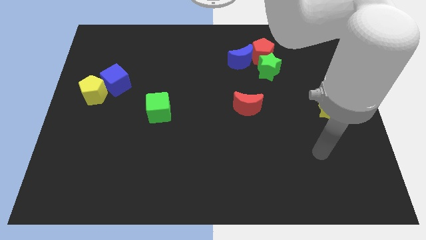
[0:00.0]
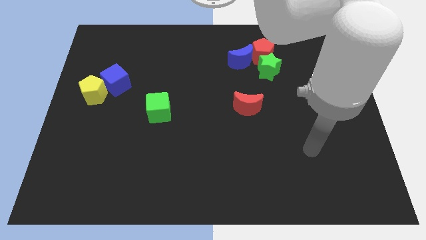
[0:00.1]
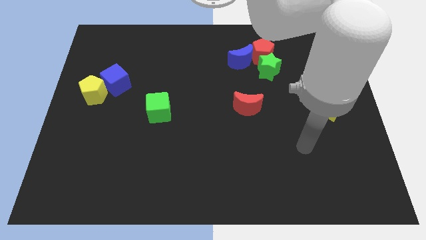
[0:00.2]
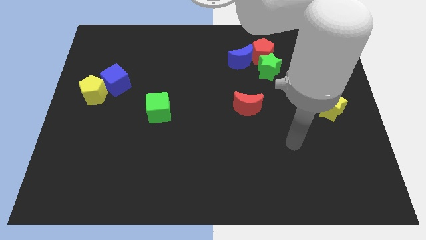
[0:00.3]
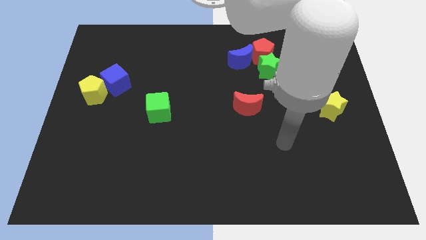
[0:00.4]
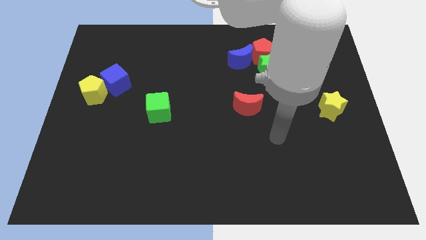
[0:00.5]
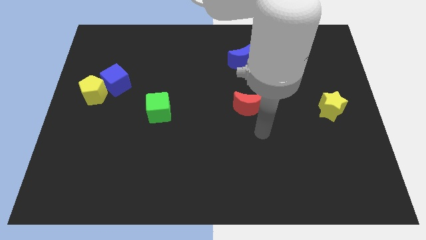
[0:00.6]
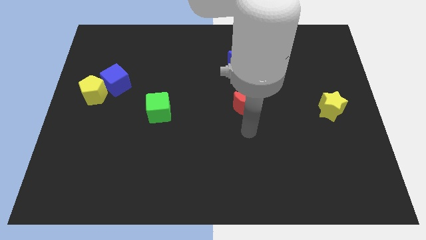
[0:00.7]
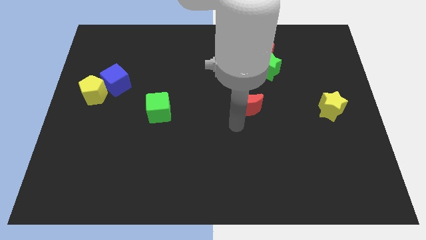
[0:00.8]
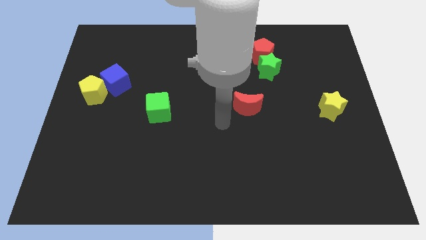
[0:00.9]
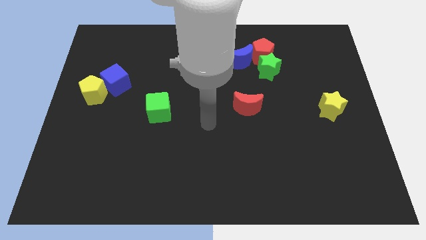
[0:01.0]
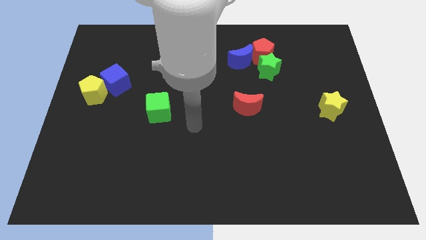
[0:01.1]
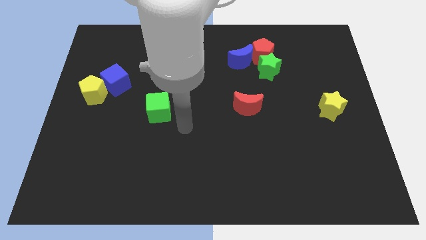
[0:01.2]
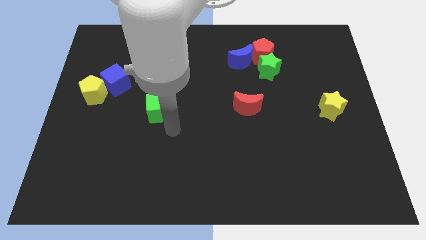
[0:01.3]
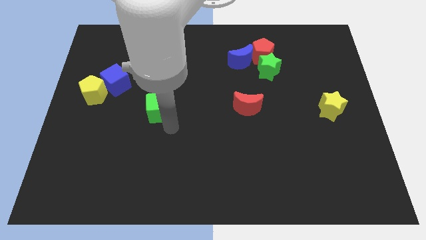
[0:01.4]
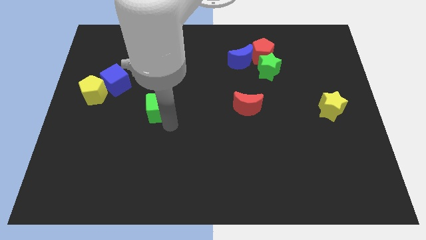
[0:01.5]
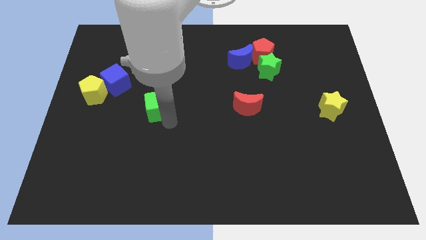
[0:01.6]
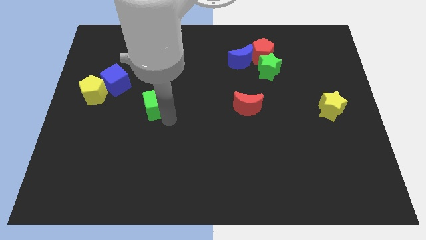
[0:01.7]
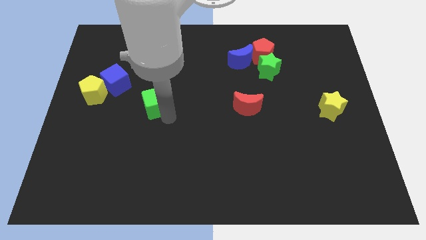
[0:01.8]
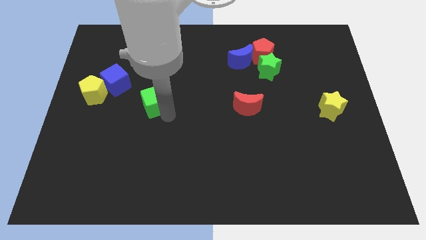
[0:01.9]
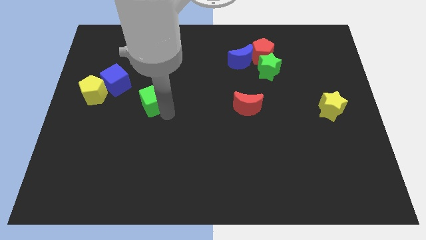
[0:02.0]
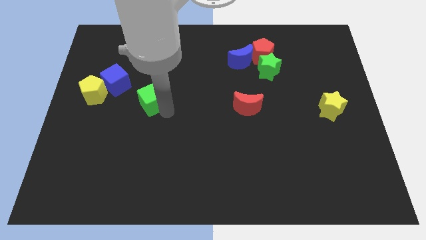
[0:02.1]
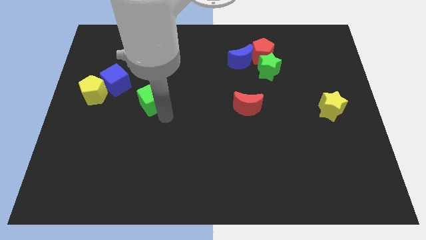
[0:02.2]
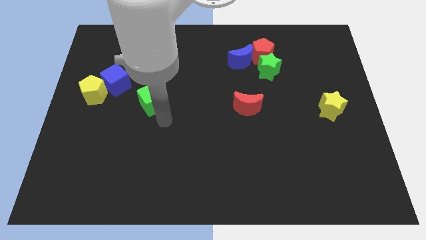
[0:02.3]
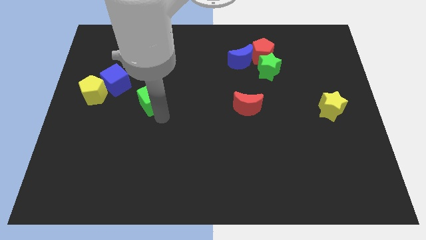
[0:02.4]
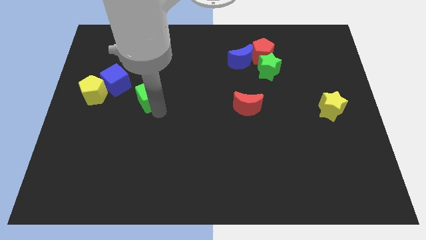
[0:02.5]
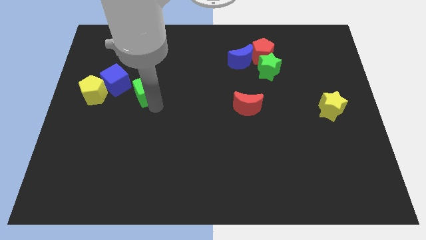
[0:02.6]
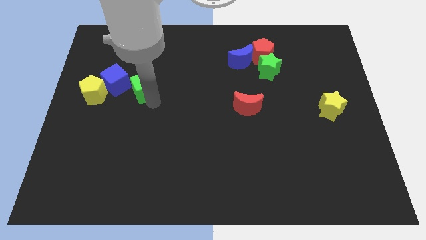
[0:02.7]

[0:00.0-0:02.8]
push the green cube slightly upwards and to the left

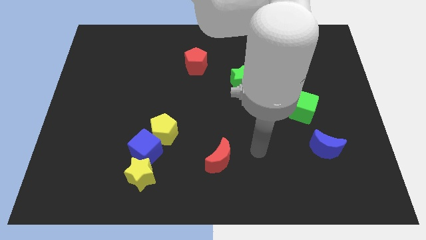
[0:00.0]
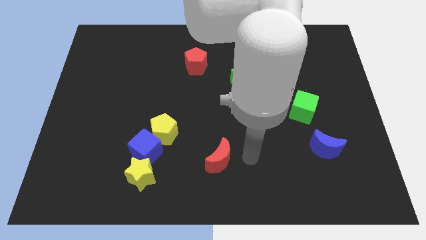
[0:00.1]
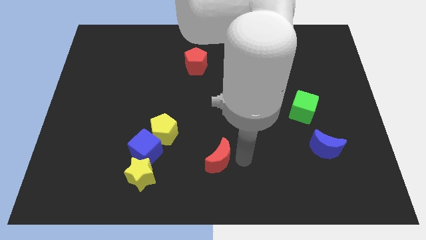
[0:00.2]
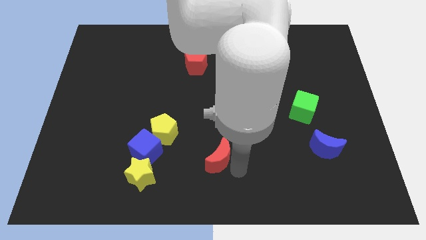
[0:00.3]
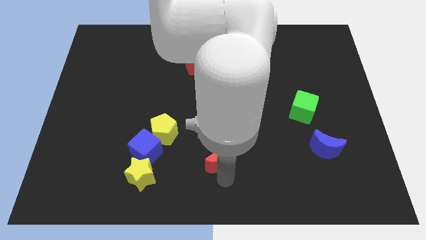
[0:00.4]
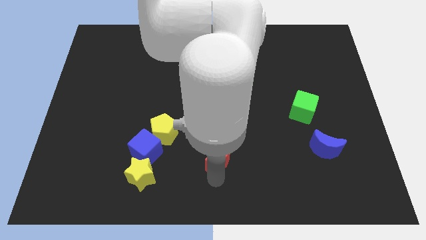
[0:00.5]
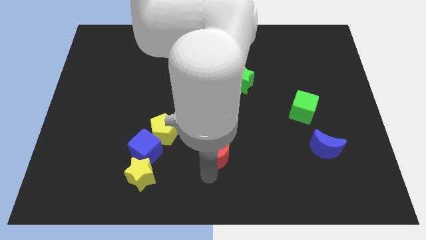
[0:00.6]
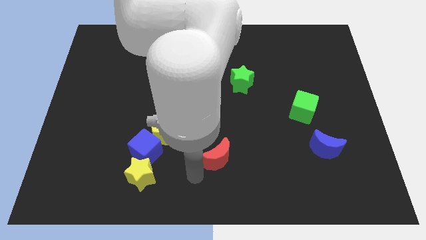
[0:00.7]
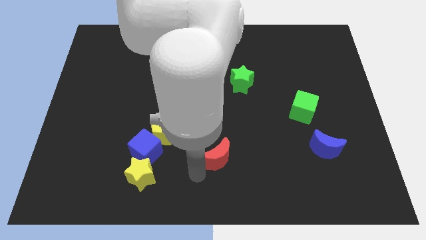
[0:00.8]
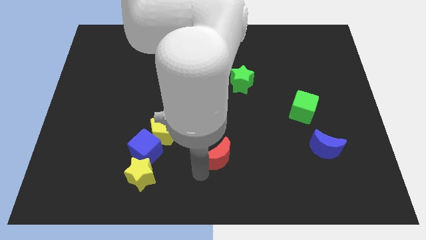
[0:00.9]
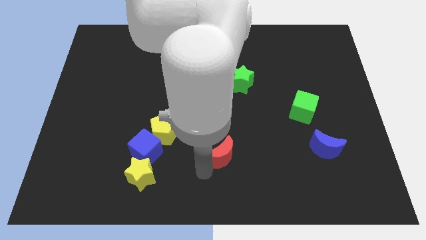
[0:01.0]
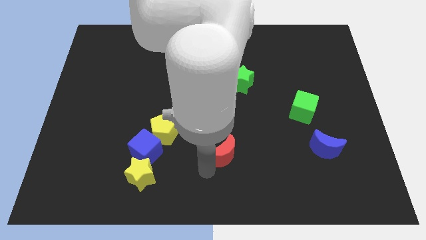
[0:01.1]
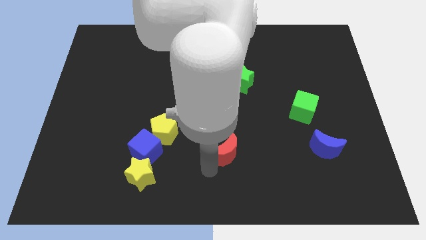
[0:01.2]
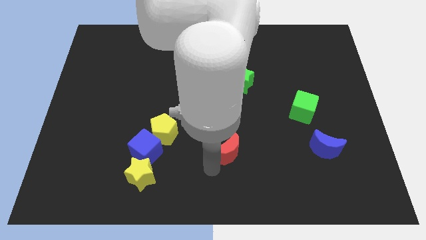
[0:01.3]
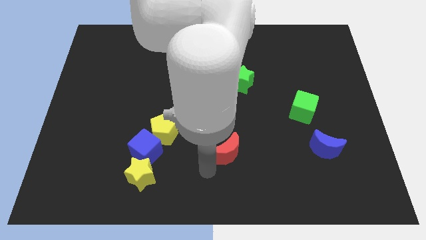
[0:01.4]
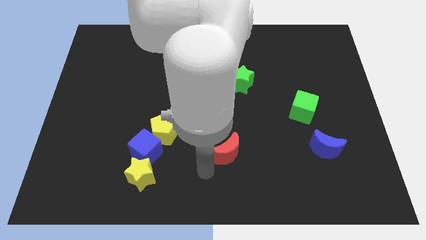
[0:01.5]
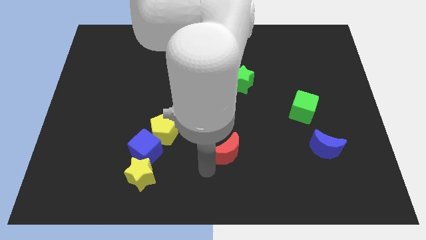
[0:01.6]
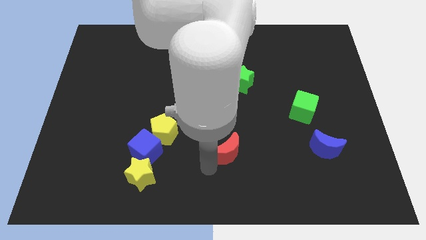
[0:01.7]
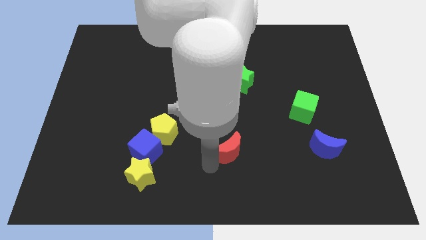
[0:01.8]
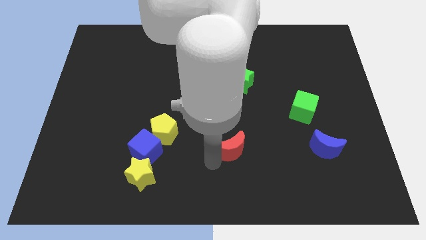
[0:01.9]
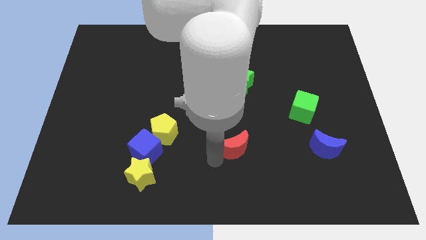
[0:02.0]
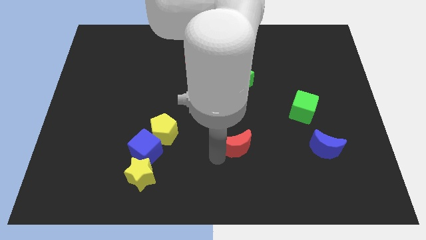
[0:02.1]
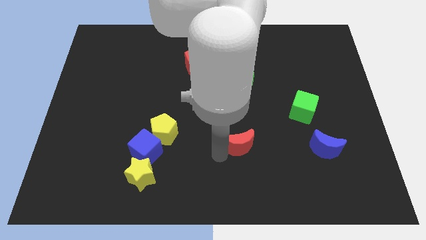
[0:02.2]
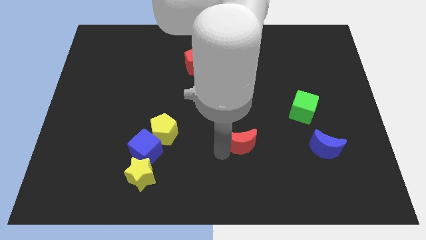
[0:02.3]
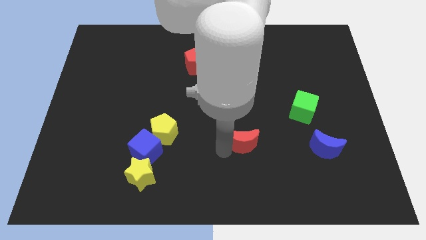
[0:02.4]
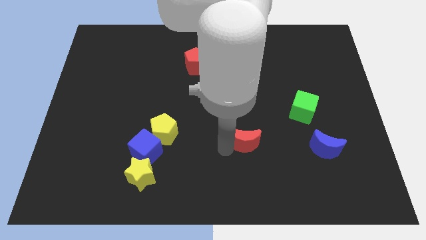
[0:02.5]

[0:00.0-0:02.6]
move the red moon a little bit upwards and to the right diagonally

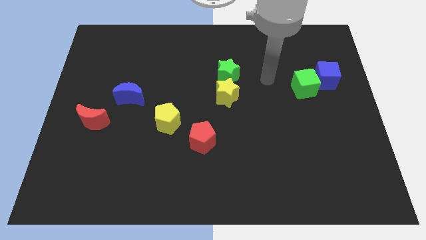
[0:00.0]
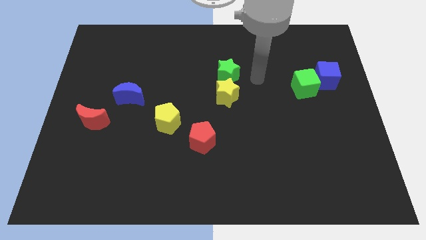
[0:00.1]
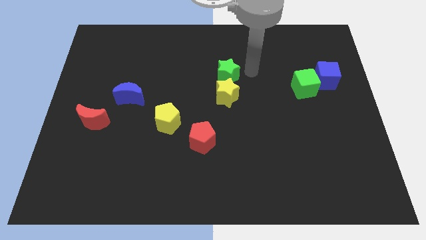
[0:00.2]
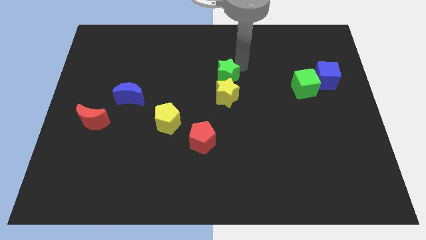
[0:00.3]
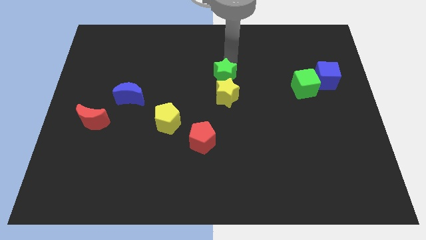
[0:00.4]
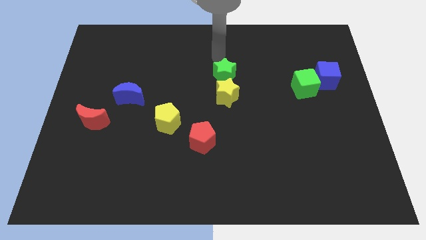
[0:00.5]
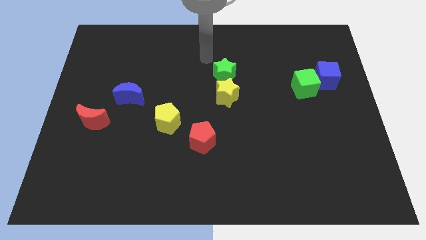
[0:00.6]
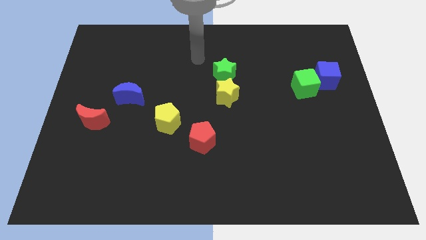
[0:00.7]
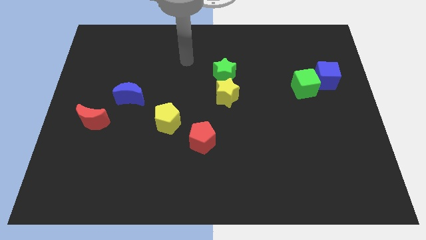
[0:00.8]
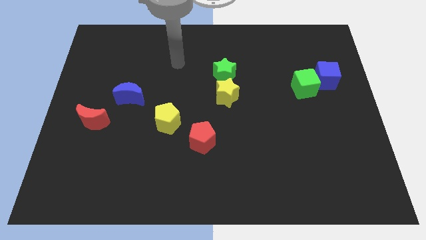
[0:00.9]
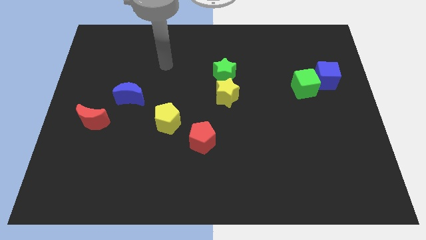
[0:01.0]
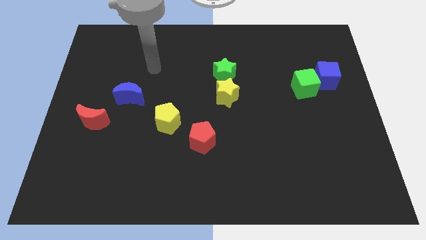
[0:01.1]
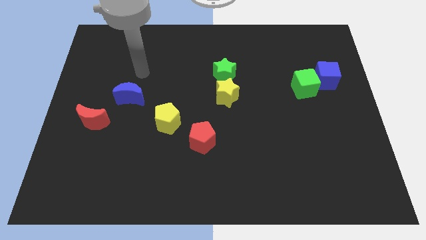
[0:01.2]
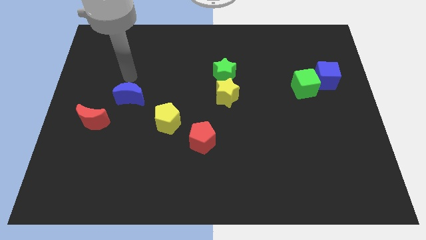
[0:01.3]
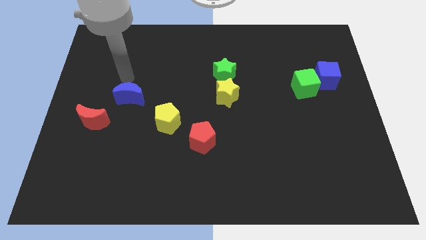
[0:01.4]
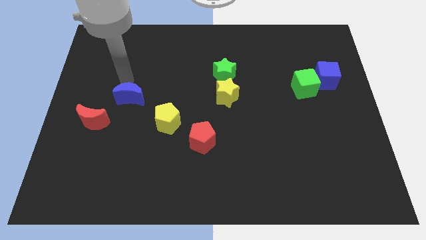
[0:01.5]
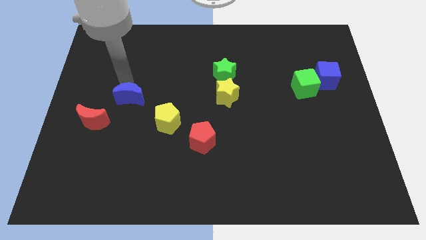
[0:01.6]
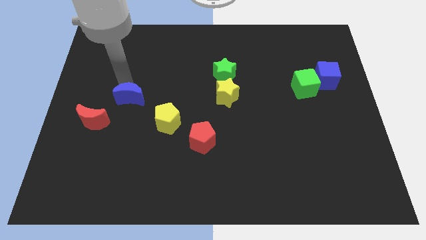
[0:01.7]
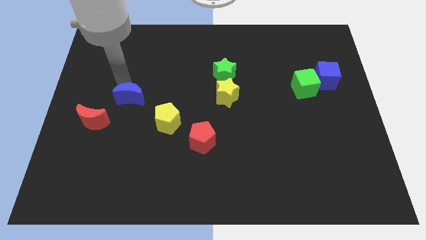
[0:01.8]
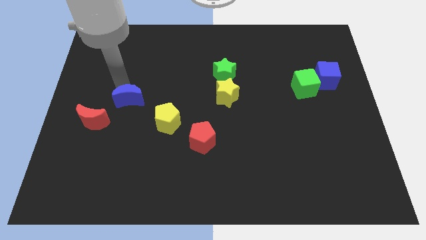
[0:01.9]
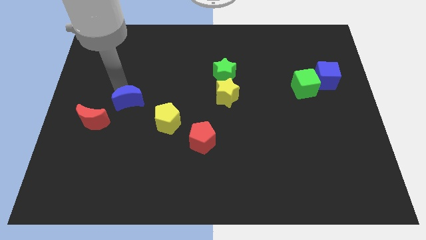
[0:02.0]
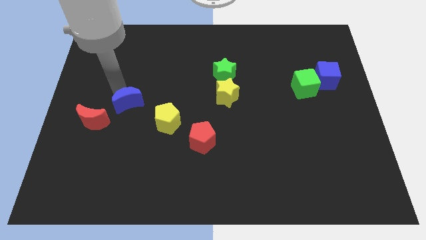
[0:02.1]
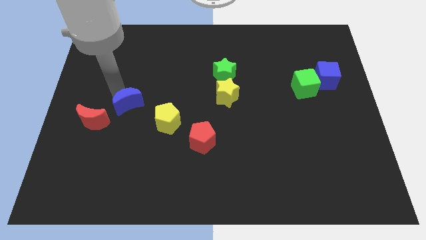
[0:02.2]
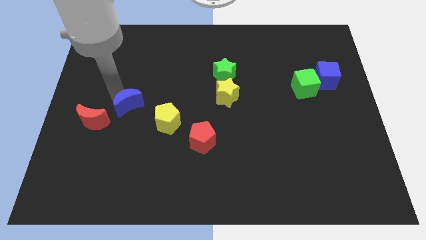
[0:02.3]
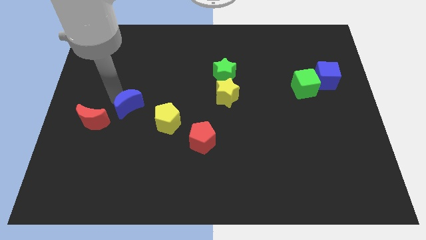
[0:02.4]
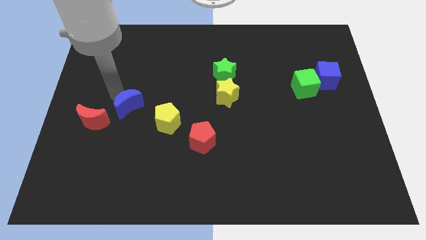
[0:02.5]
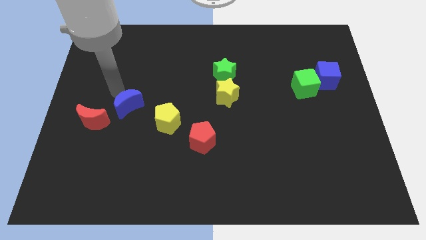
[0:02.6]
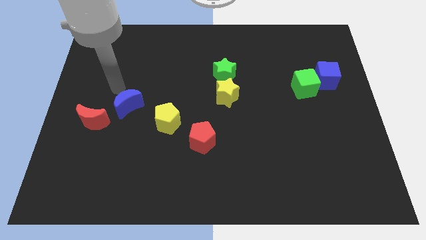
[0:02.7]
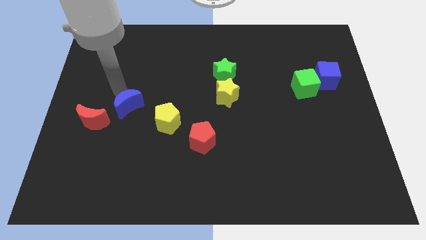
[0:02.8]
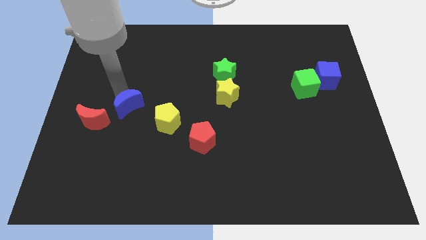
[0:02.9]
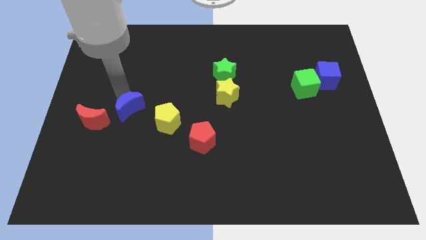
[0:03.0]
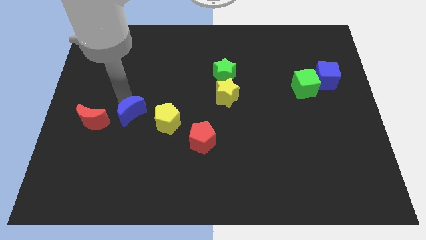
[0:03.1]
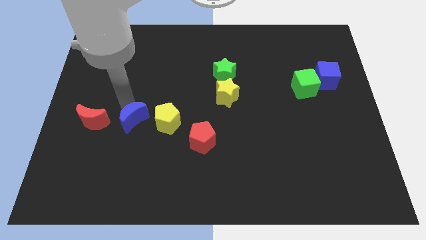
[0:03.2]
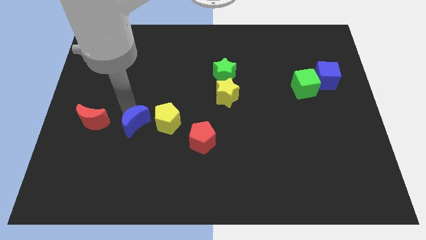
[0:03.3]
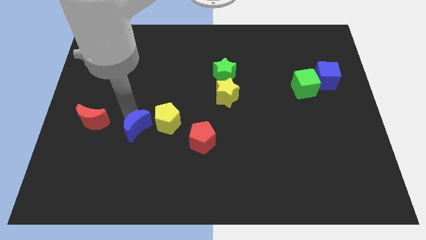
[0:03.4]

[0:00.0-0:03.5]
slightly slide the blue moon downwards and to the right
